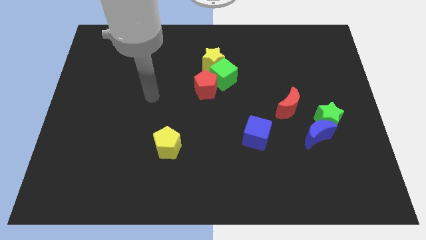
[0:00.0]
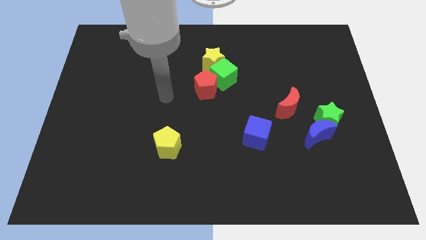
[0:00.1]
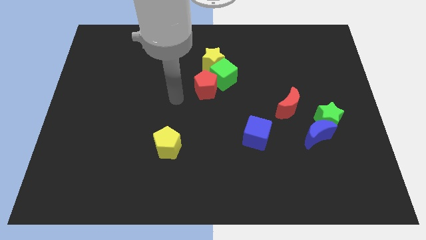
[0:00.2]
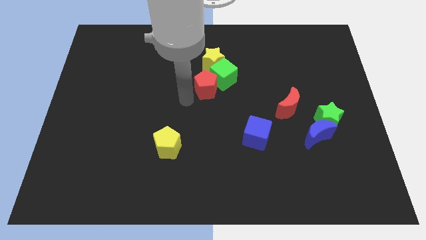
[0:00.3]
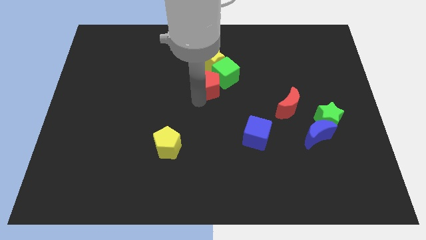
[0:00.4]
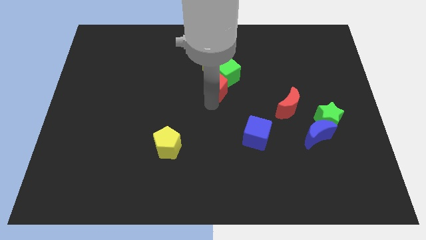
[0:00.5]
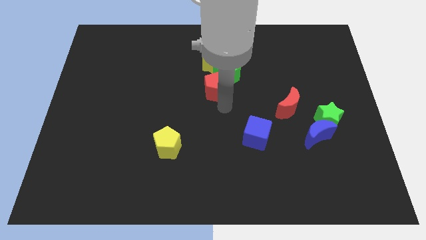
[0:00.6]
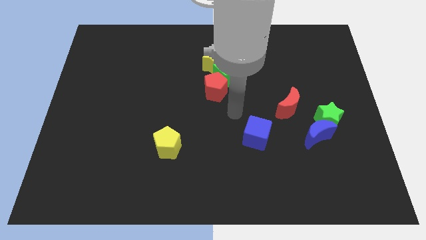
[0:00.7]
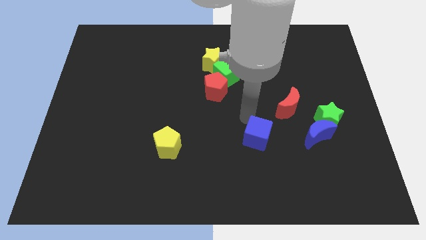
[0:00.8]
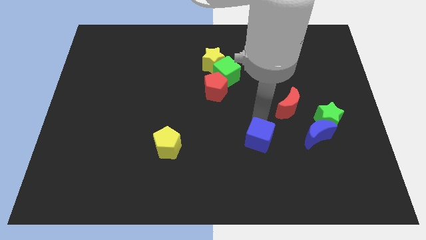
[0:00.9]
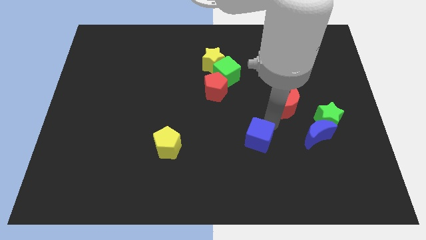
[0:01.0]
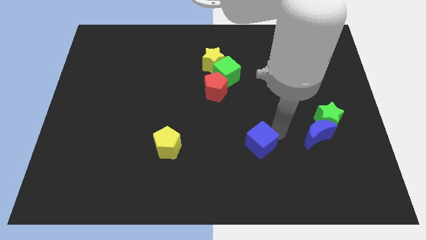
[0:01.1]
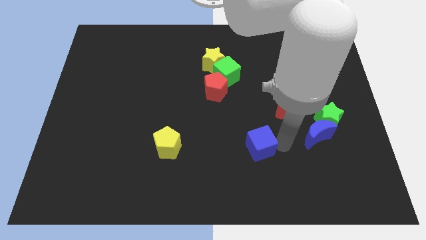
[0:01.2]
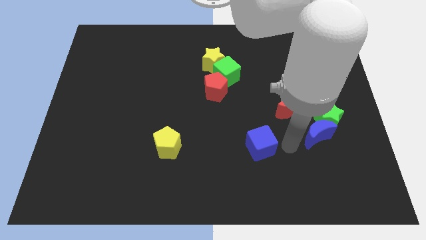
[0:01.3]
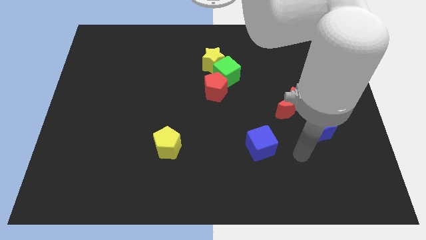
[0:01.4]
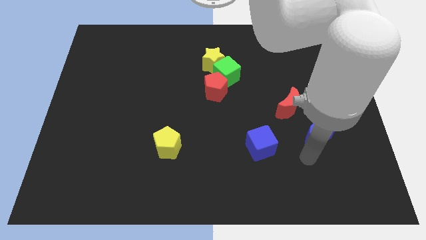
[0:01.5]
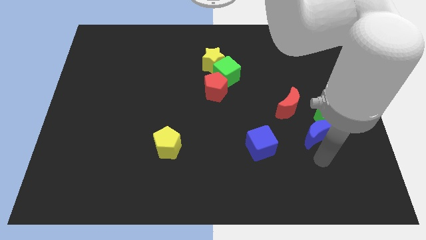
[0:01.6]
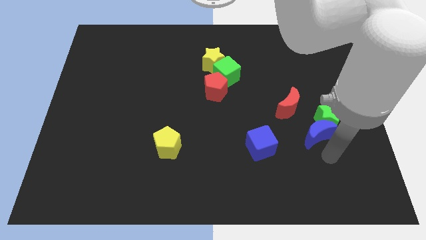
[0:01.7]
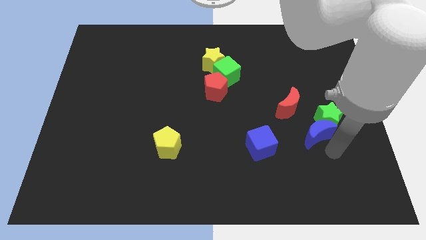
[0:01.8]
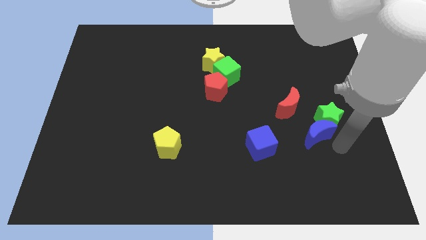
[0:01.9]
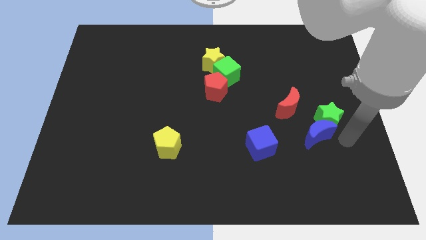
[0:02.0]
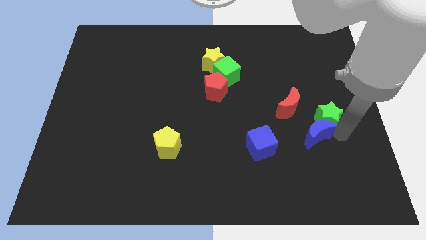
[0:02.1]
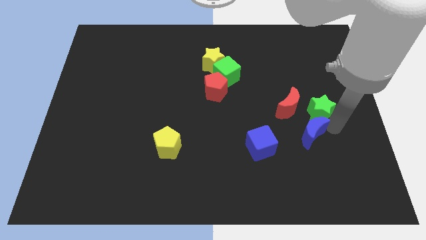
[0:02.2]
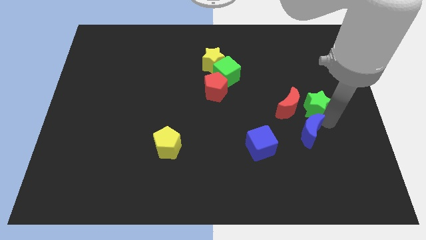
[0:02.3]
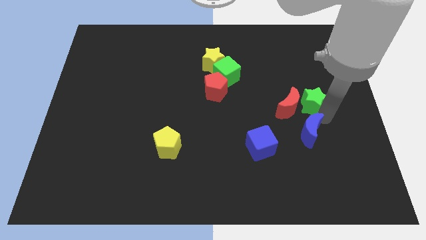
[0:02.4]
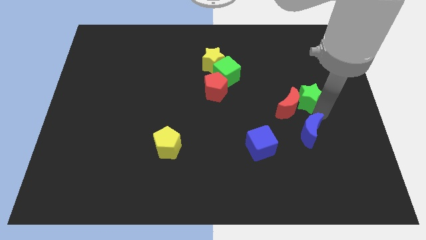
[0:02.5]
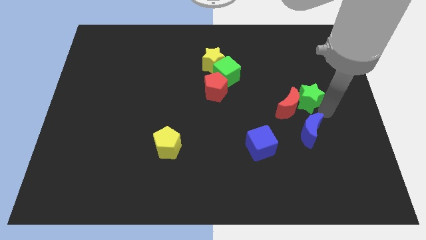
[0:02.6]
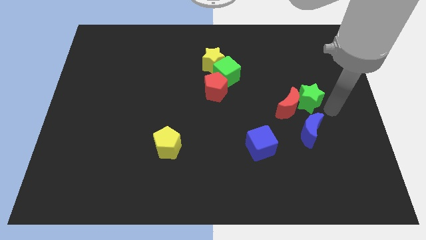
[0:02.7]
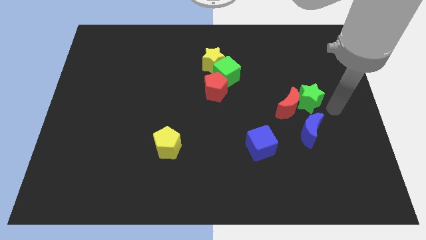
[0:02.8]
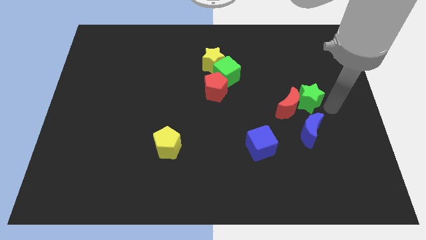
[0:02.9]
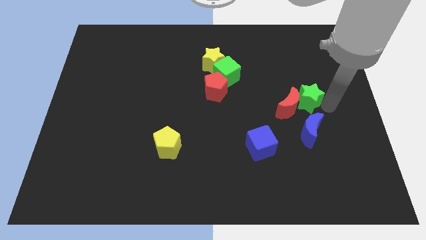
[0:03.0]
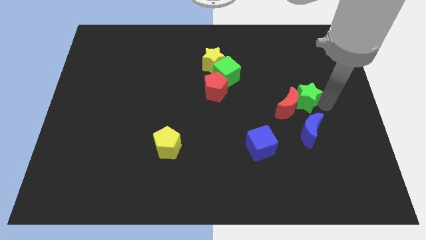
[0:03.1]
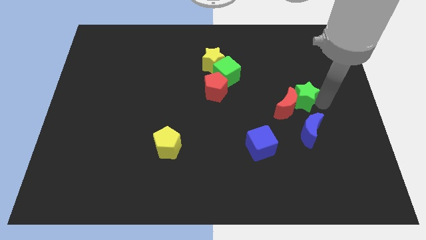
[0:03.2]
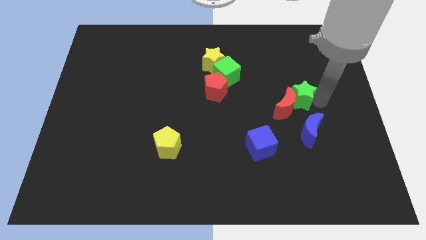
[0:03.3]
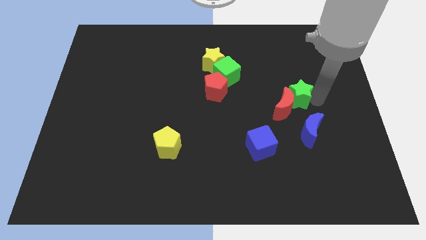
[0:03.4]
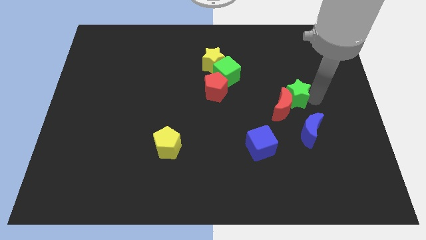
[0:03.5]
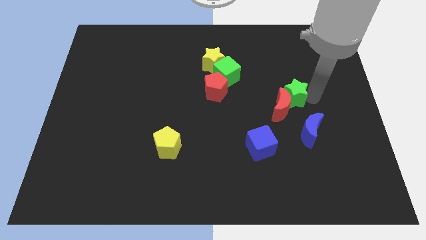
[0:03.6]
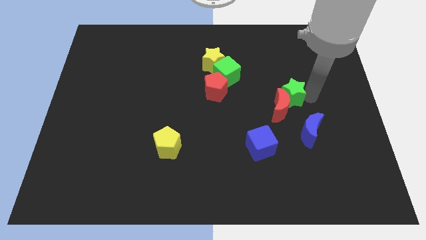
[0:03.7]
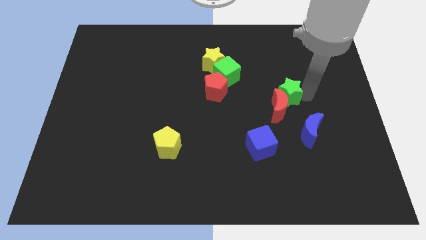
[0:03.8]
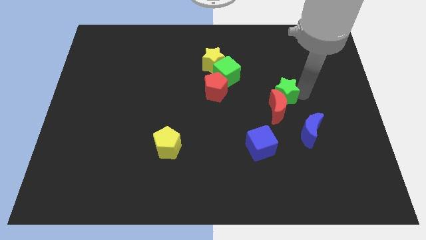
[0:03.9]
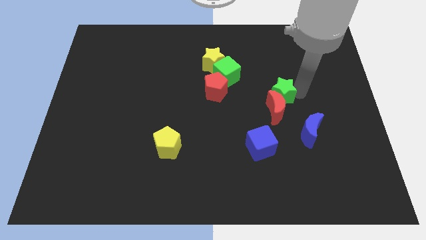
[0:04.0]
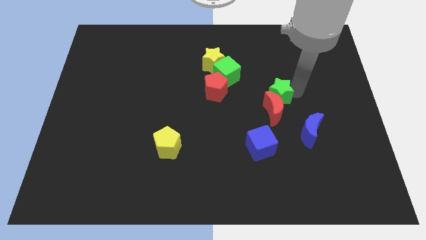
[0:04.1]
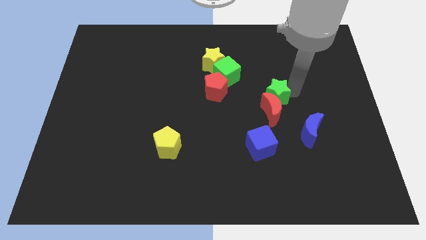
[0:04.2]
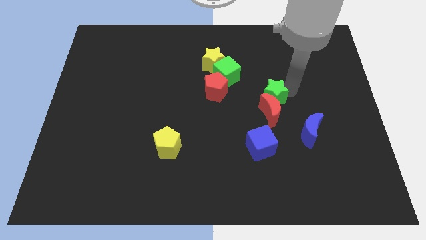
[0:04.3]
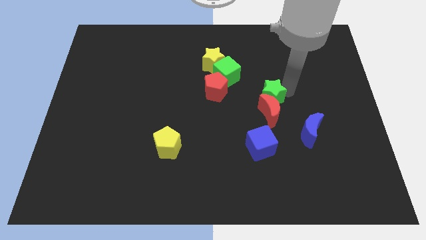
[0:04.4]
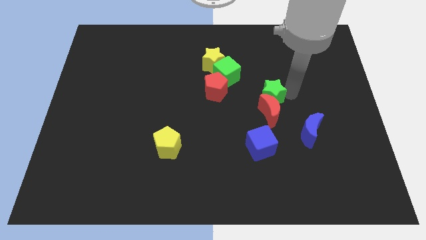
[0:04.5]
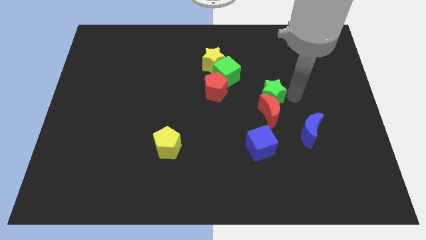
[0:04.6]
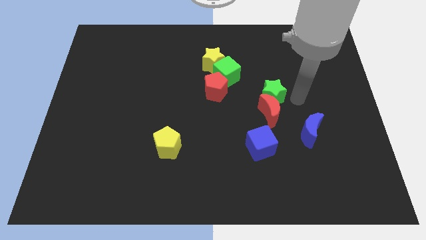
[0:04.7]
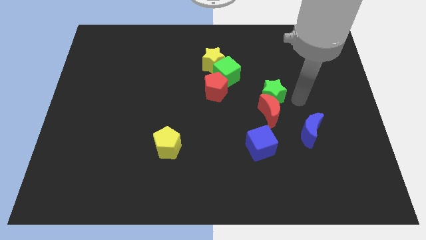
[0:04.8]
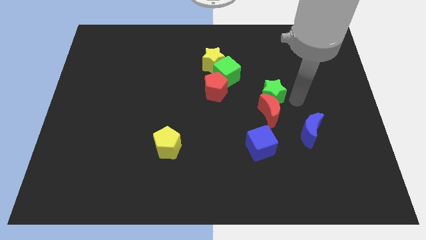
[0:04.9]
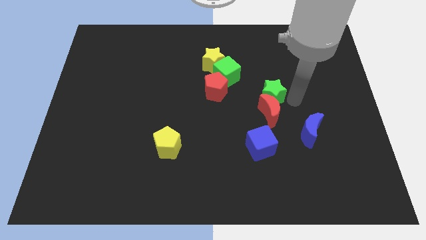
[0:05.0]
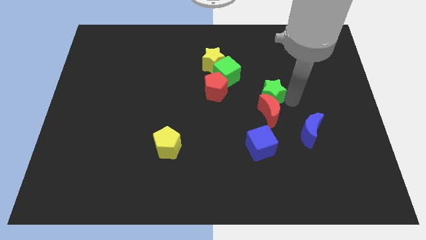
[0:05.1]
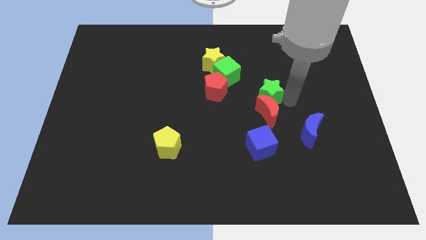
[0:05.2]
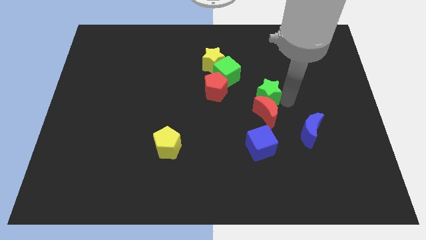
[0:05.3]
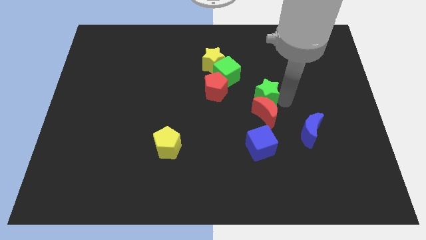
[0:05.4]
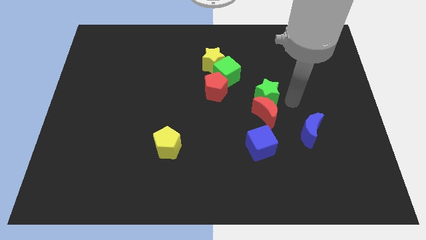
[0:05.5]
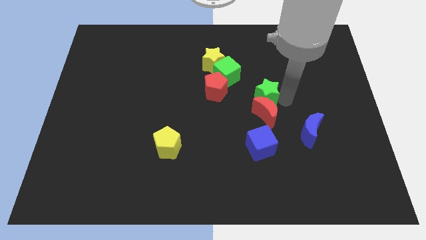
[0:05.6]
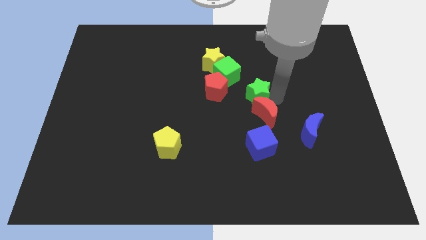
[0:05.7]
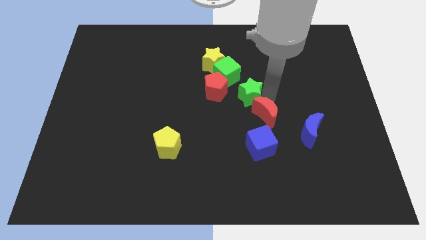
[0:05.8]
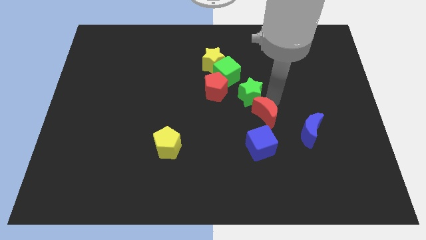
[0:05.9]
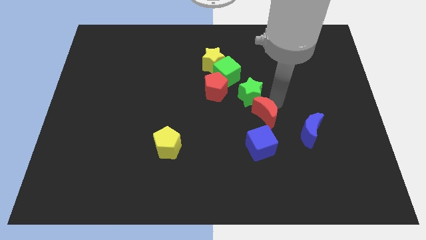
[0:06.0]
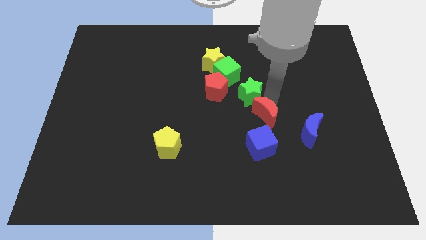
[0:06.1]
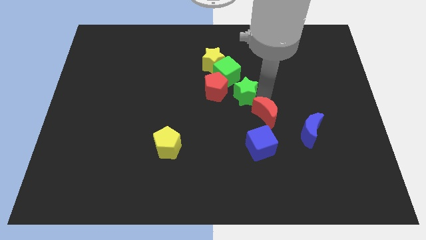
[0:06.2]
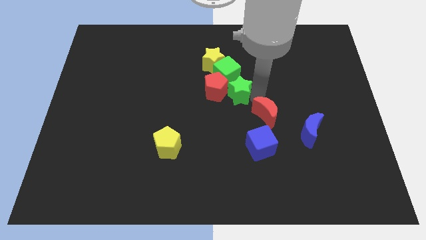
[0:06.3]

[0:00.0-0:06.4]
push the green star close to the red pentagon
